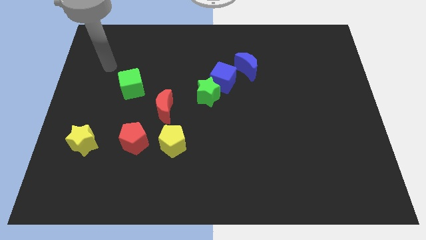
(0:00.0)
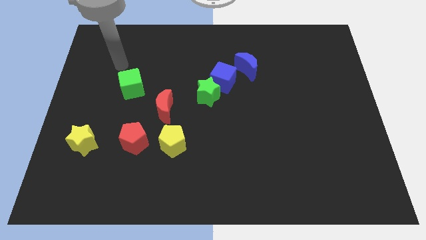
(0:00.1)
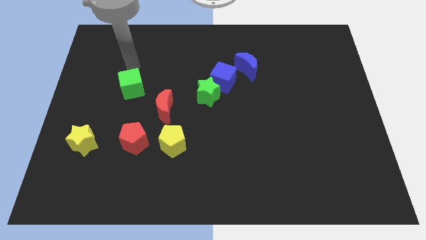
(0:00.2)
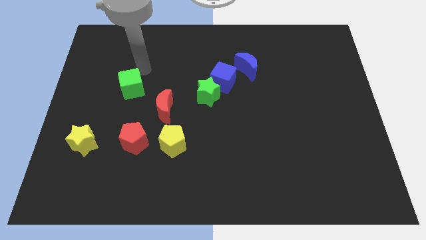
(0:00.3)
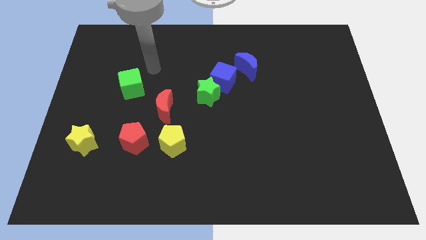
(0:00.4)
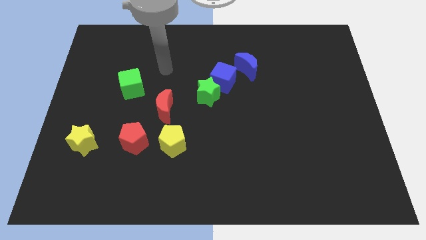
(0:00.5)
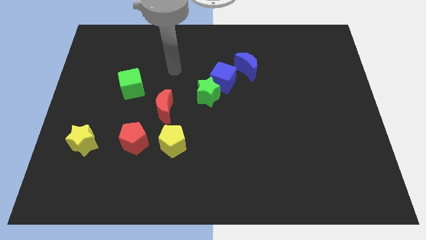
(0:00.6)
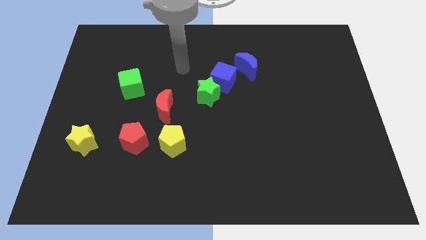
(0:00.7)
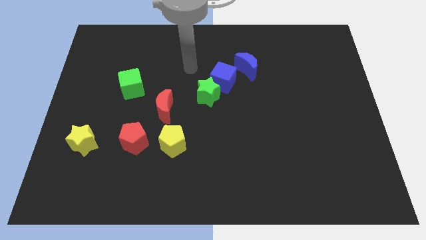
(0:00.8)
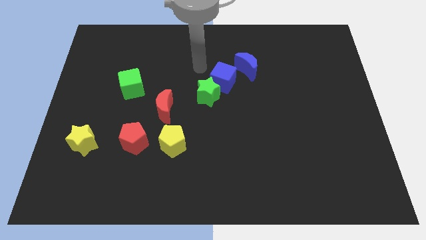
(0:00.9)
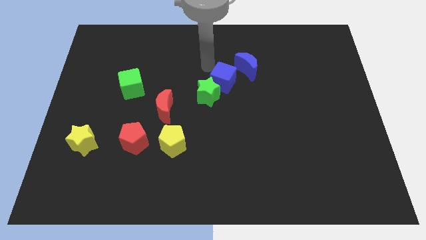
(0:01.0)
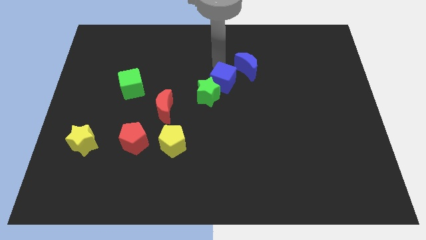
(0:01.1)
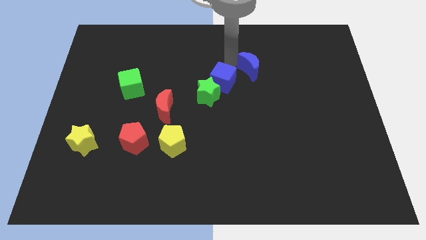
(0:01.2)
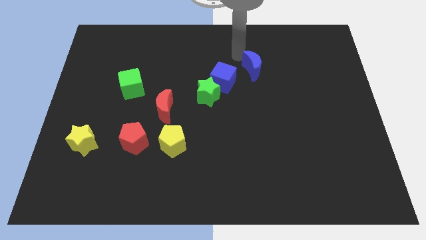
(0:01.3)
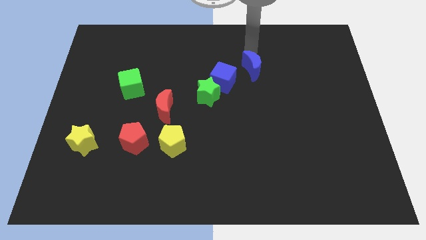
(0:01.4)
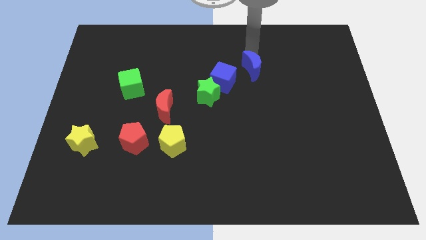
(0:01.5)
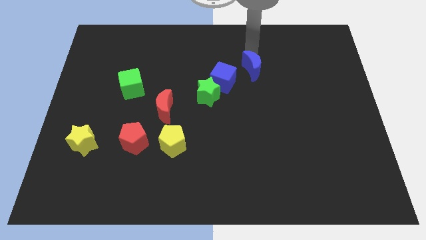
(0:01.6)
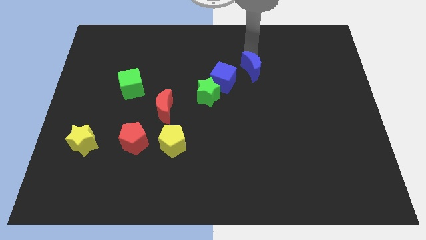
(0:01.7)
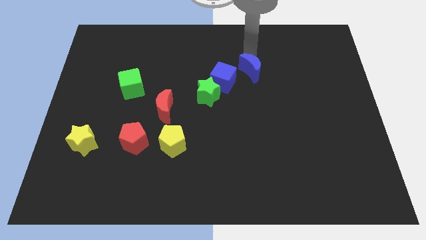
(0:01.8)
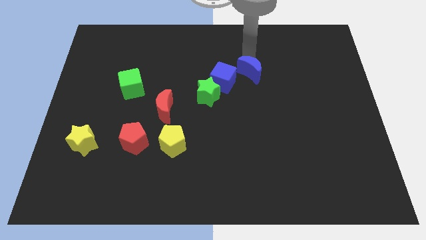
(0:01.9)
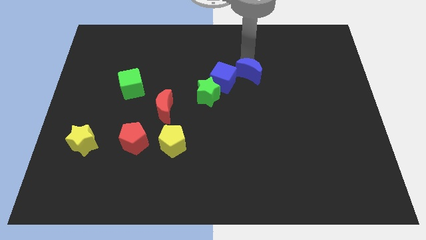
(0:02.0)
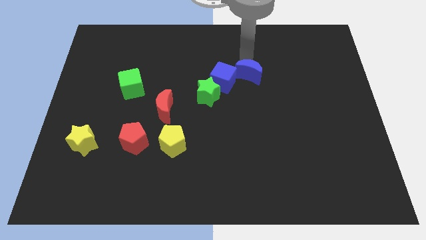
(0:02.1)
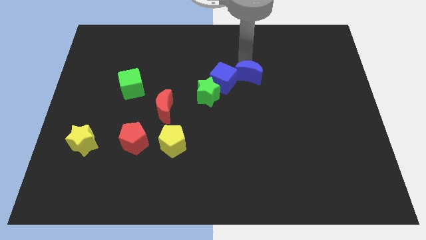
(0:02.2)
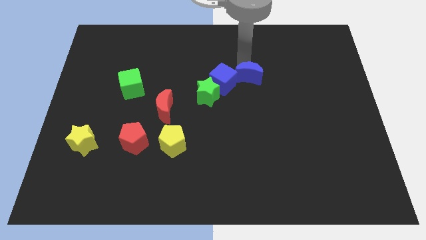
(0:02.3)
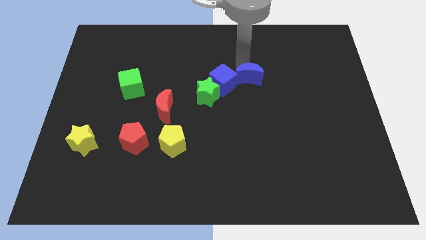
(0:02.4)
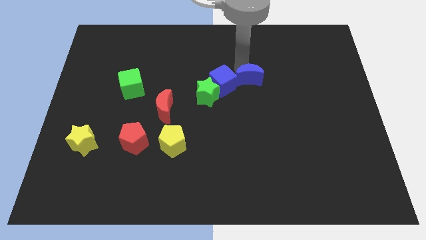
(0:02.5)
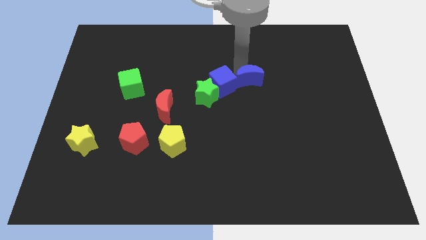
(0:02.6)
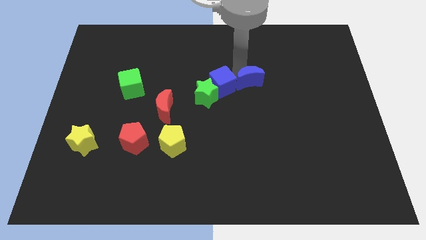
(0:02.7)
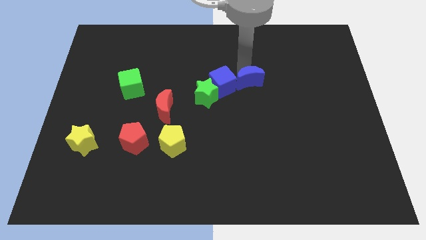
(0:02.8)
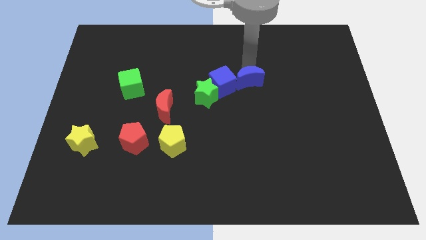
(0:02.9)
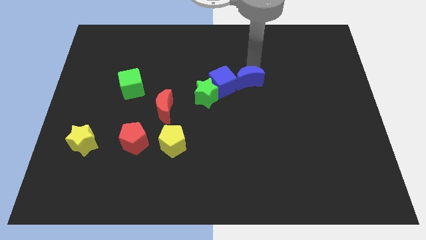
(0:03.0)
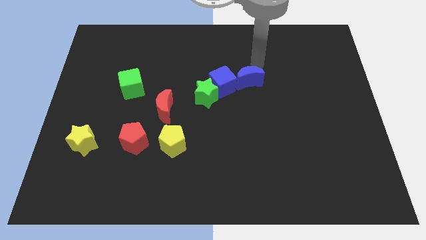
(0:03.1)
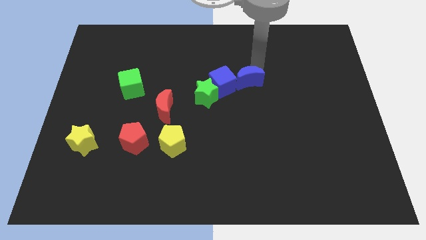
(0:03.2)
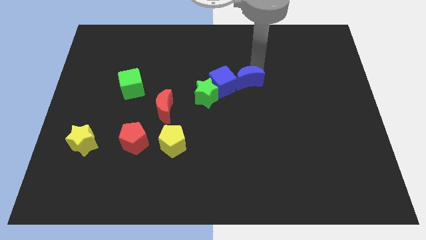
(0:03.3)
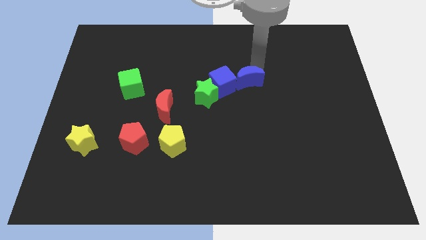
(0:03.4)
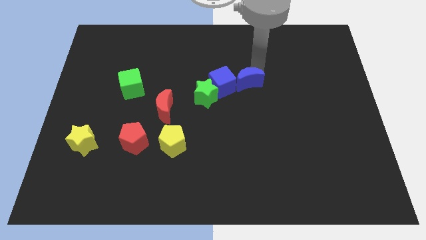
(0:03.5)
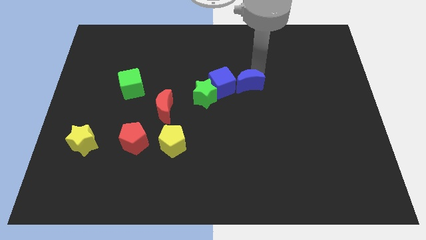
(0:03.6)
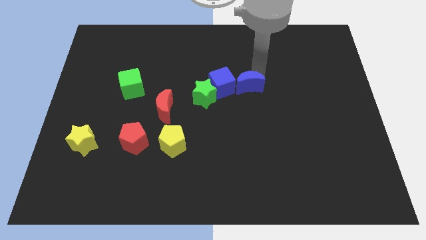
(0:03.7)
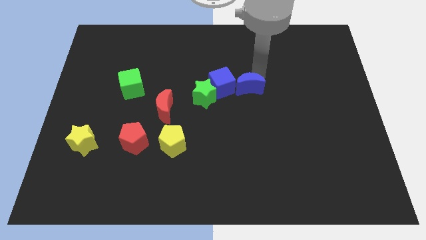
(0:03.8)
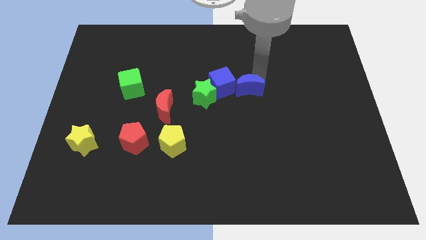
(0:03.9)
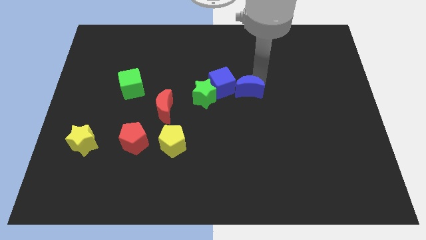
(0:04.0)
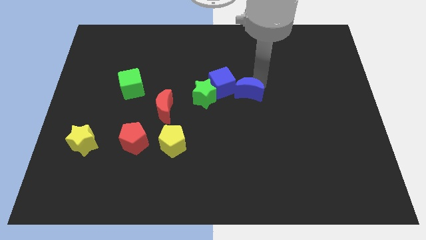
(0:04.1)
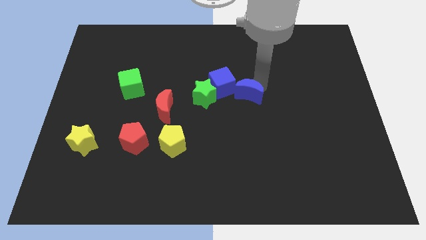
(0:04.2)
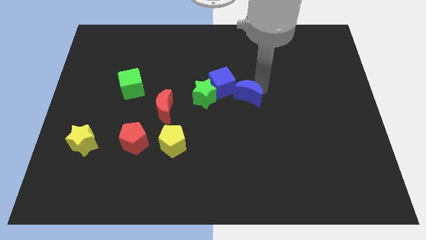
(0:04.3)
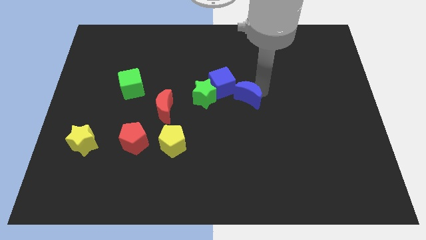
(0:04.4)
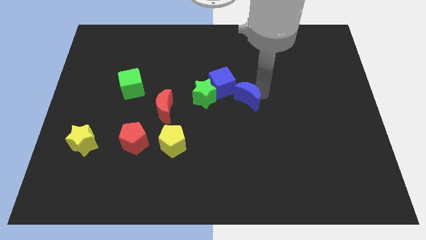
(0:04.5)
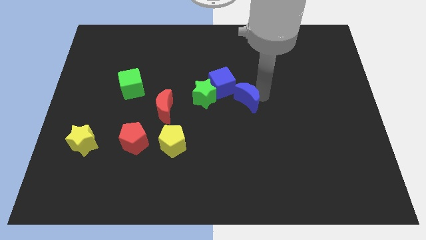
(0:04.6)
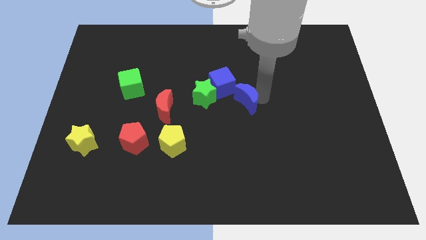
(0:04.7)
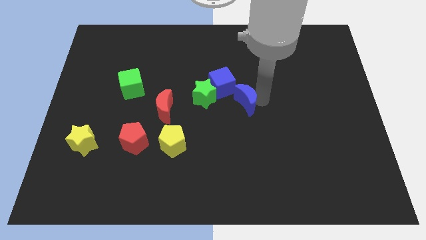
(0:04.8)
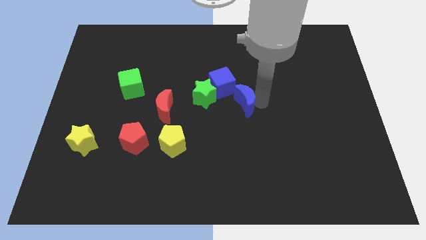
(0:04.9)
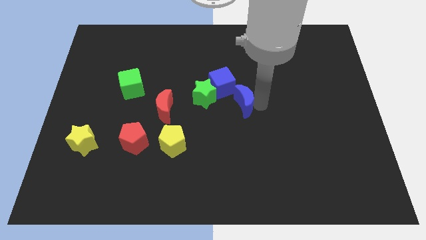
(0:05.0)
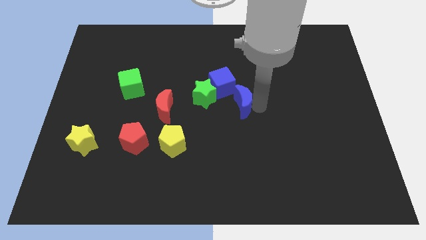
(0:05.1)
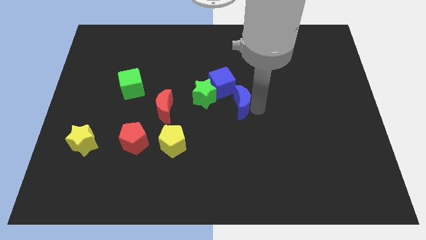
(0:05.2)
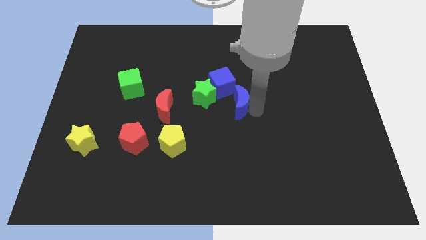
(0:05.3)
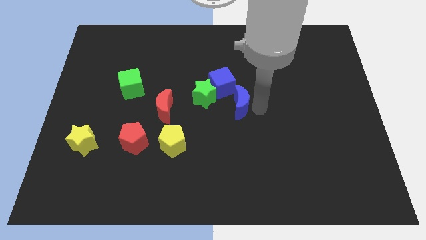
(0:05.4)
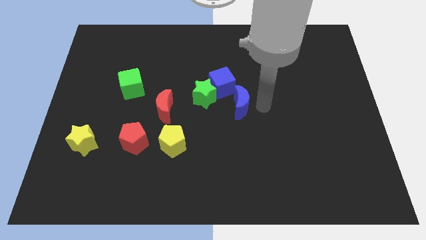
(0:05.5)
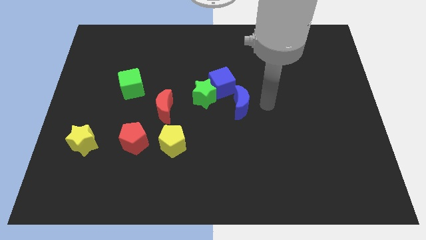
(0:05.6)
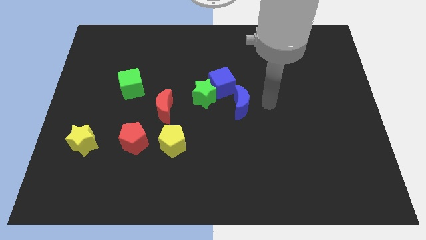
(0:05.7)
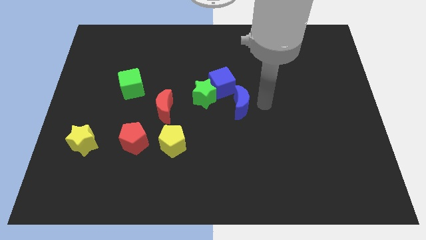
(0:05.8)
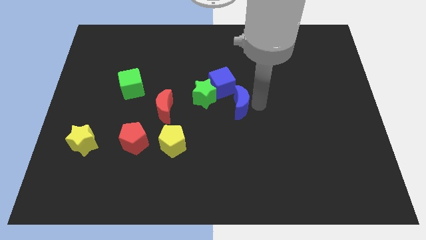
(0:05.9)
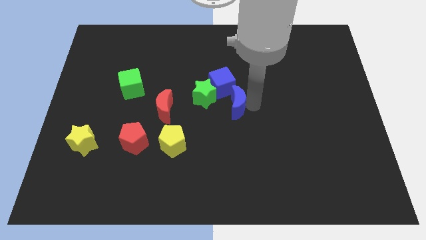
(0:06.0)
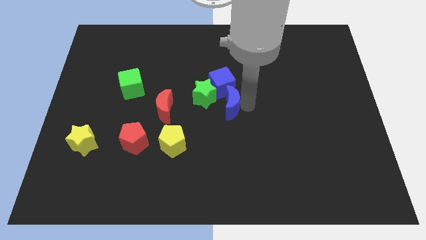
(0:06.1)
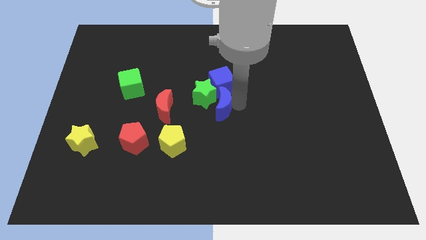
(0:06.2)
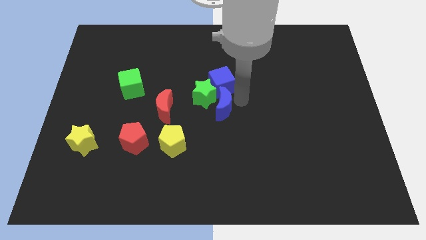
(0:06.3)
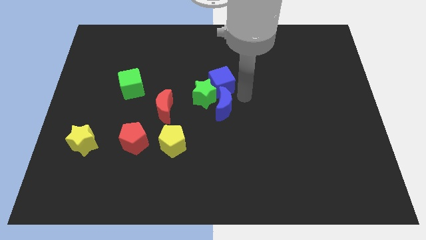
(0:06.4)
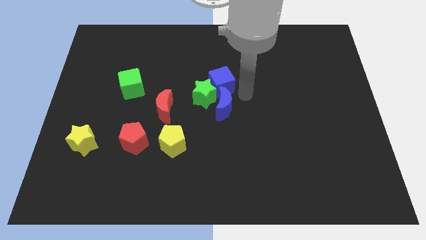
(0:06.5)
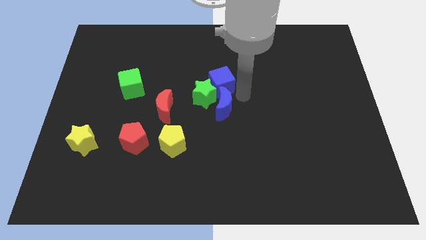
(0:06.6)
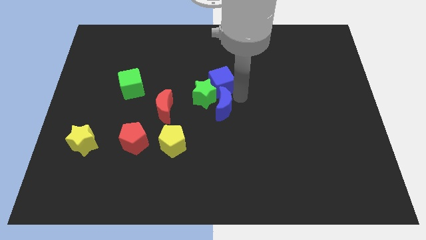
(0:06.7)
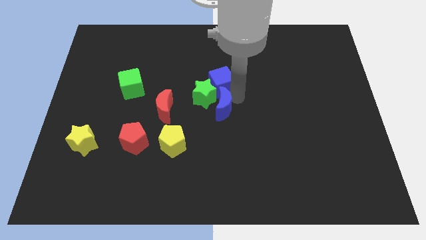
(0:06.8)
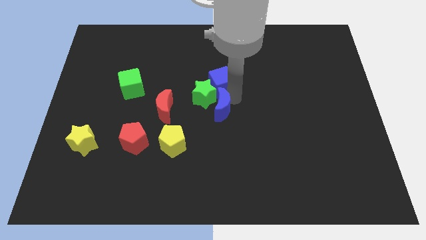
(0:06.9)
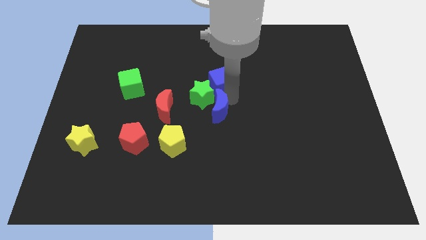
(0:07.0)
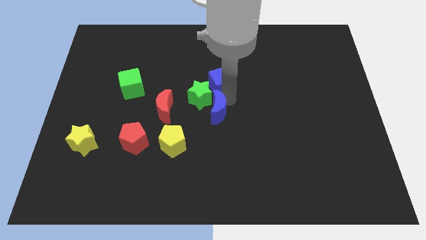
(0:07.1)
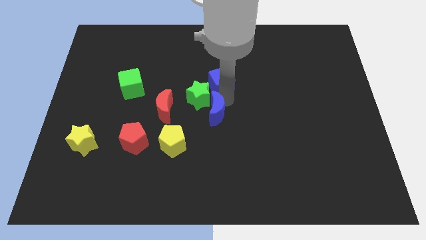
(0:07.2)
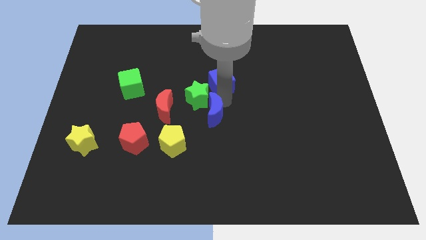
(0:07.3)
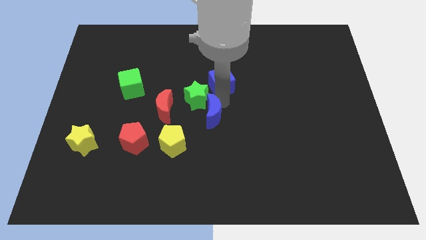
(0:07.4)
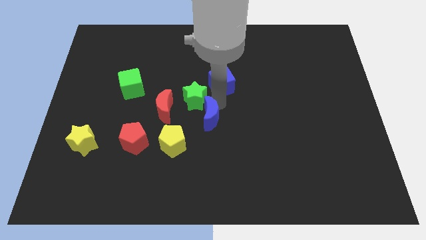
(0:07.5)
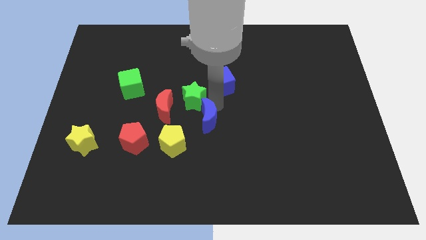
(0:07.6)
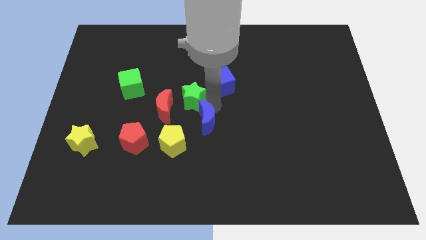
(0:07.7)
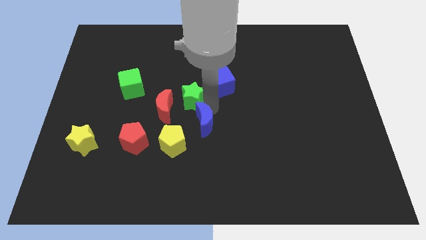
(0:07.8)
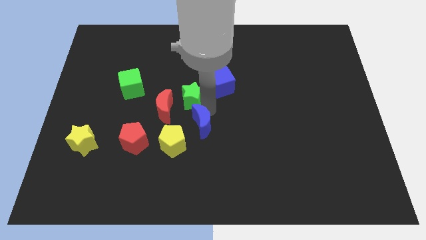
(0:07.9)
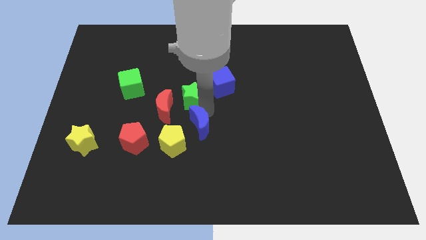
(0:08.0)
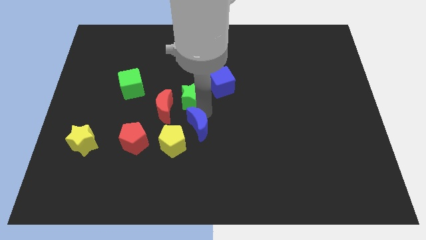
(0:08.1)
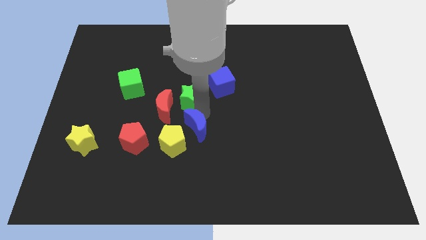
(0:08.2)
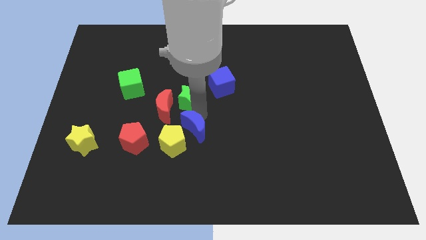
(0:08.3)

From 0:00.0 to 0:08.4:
push the blue moon close to the yellow pentagon
